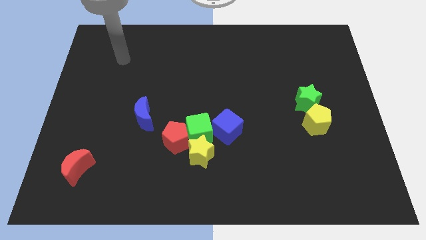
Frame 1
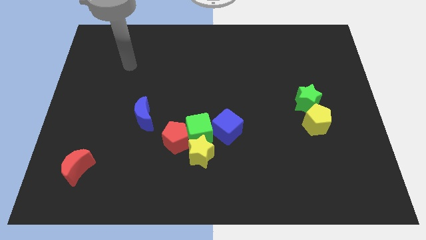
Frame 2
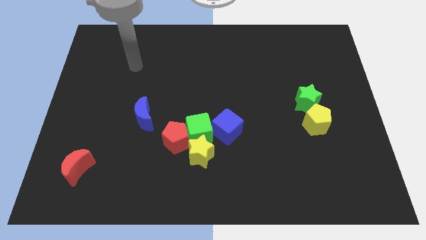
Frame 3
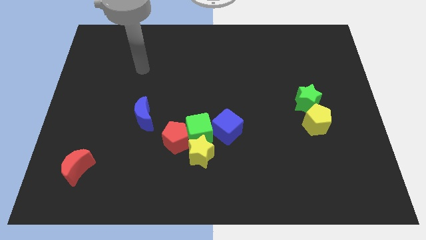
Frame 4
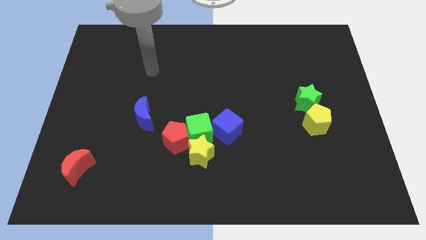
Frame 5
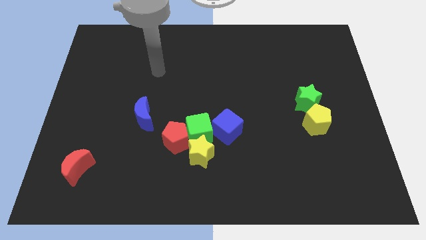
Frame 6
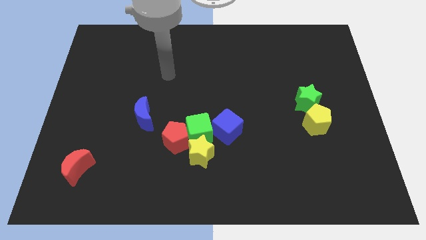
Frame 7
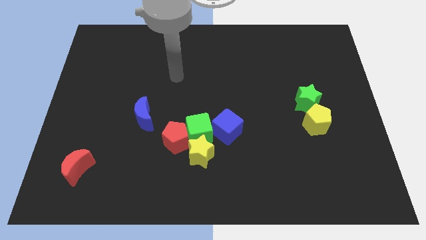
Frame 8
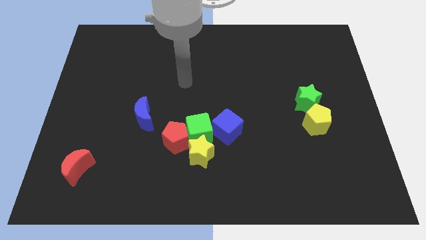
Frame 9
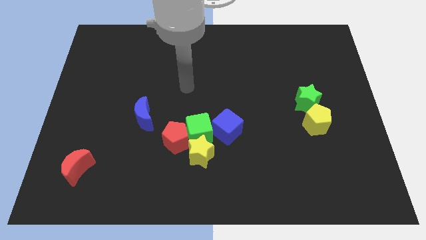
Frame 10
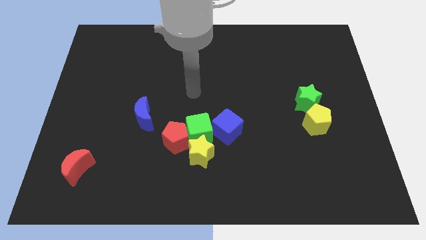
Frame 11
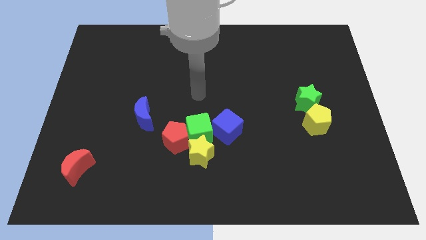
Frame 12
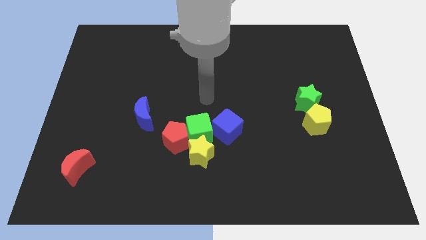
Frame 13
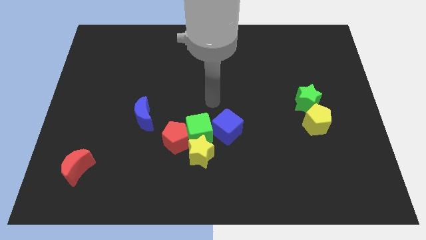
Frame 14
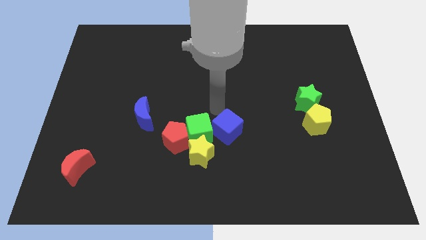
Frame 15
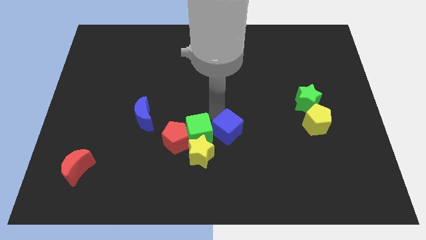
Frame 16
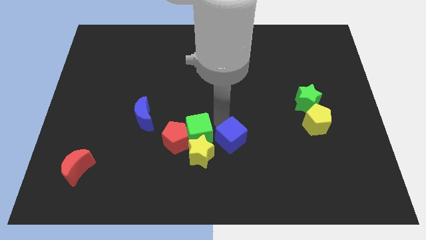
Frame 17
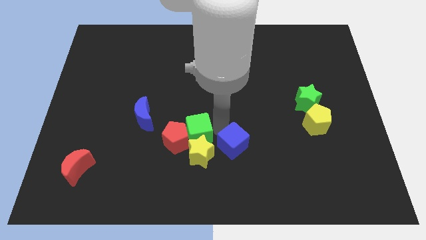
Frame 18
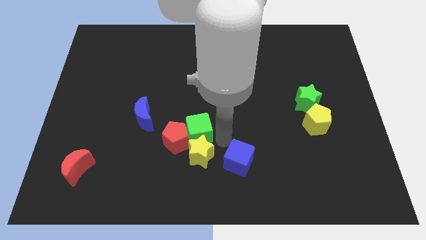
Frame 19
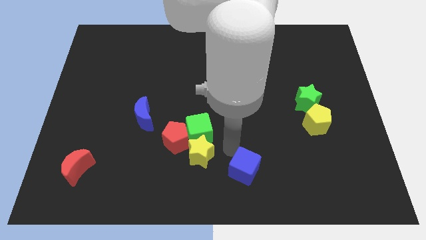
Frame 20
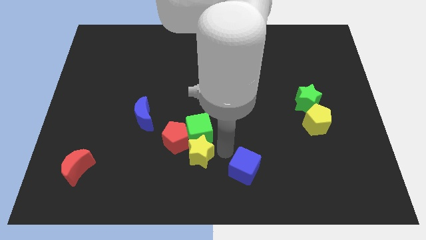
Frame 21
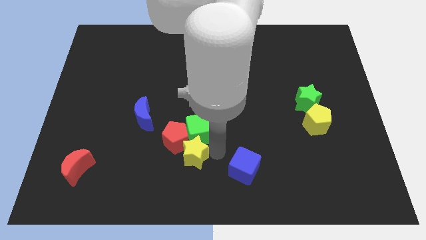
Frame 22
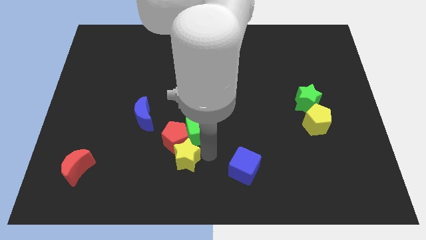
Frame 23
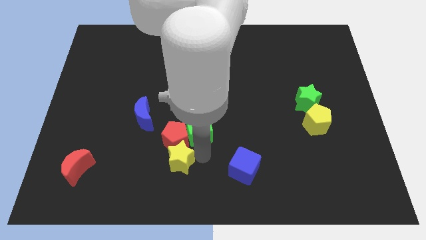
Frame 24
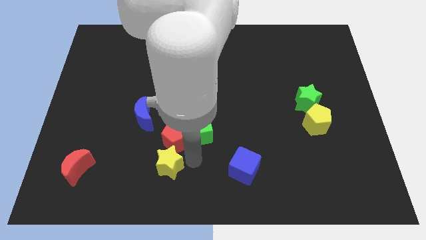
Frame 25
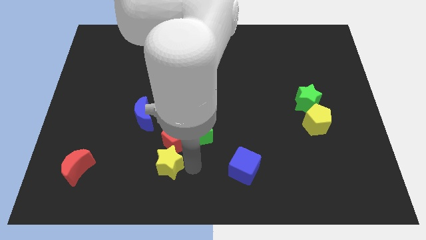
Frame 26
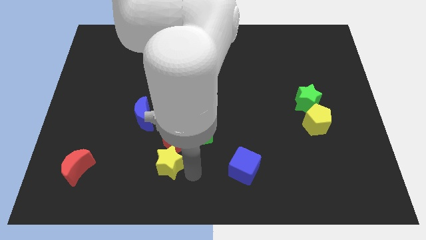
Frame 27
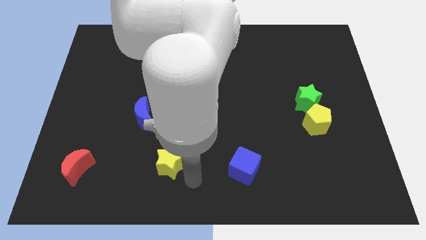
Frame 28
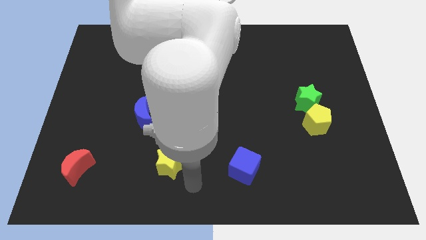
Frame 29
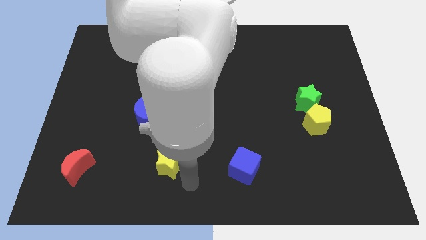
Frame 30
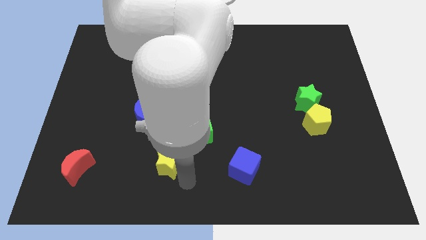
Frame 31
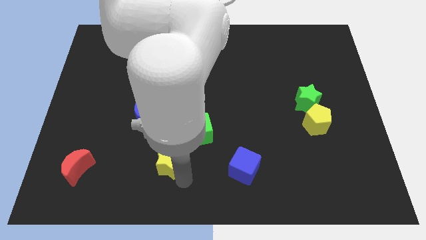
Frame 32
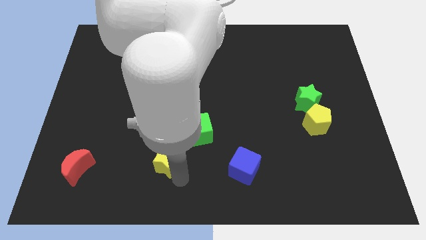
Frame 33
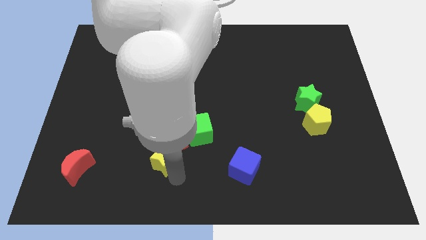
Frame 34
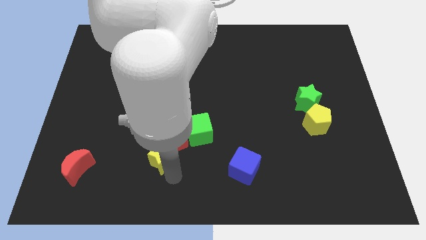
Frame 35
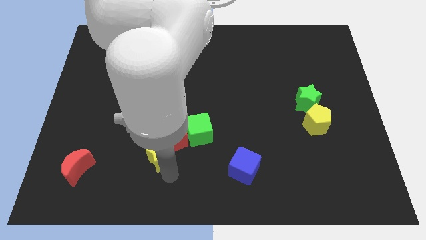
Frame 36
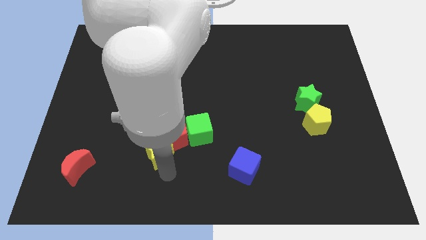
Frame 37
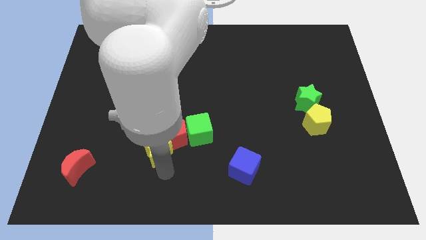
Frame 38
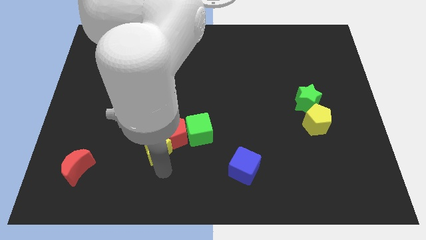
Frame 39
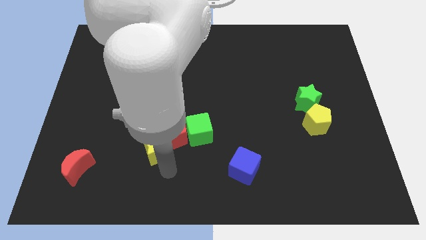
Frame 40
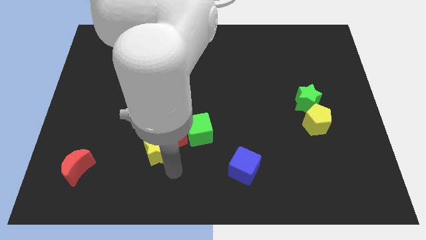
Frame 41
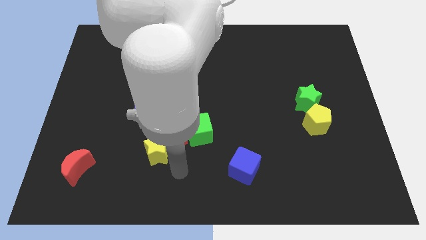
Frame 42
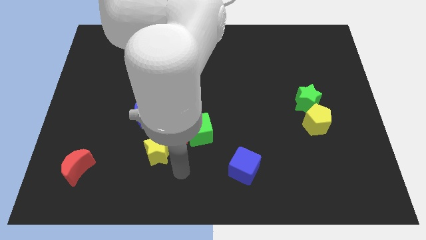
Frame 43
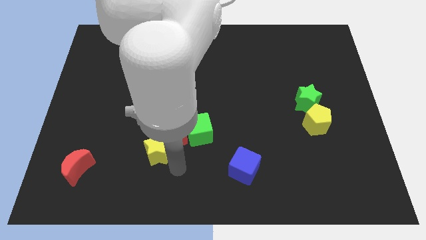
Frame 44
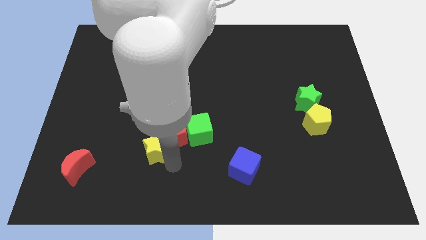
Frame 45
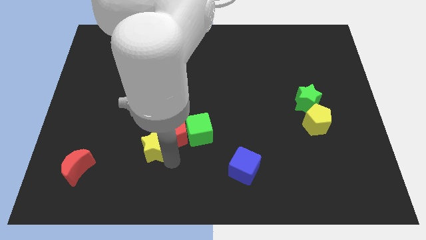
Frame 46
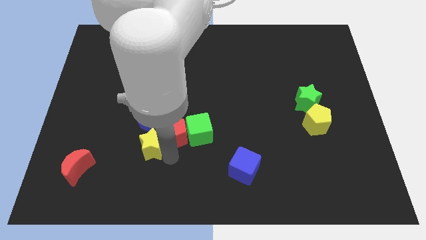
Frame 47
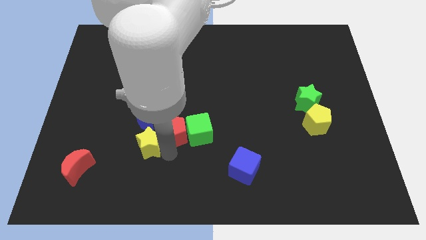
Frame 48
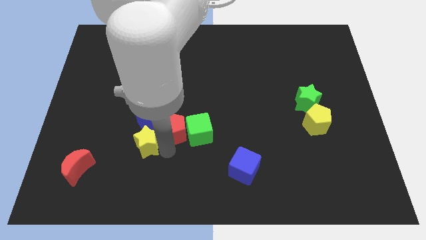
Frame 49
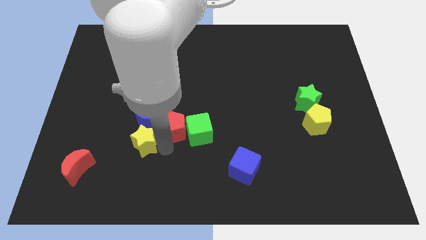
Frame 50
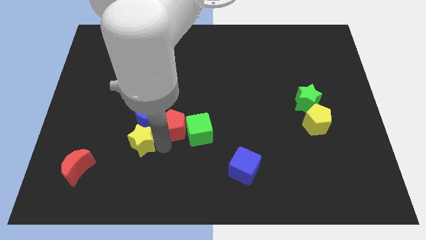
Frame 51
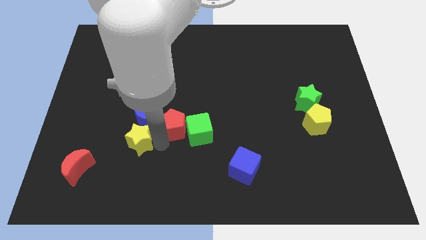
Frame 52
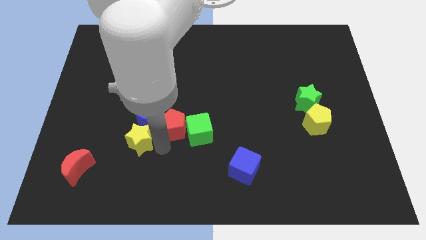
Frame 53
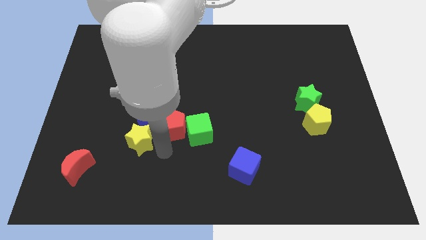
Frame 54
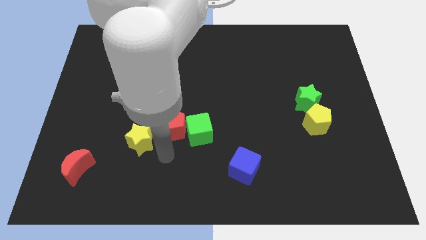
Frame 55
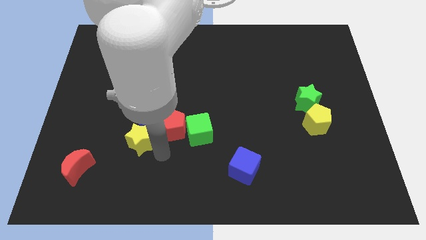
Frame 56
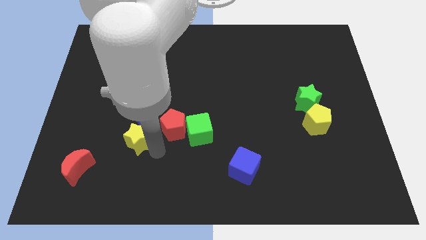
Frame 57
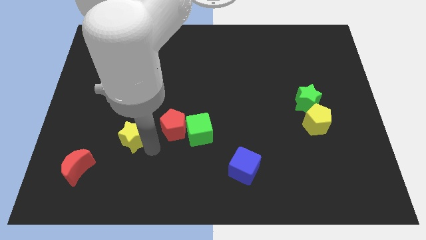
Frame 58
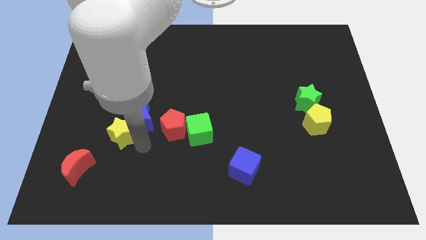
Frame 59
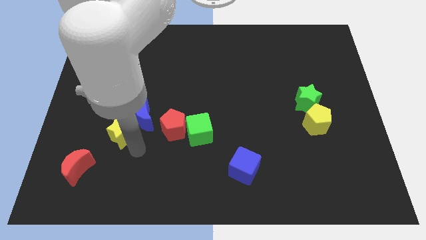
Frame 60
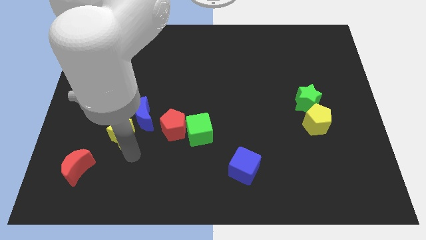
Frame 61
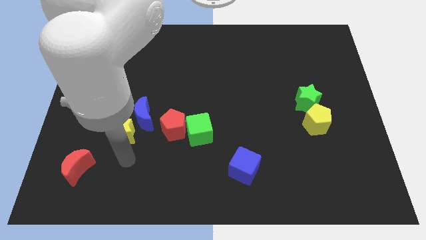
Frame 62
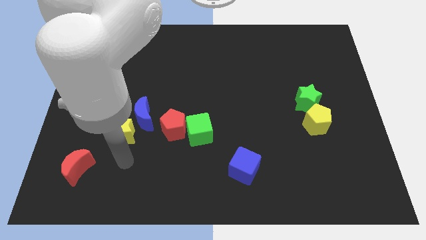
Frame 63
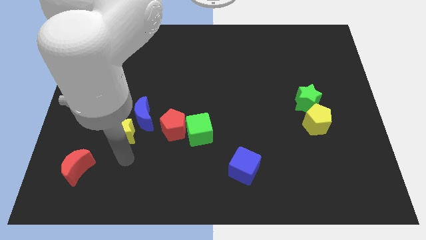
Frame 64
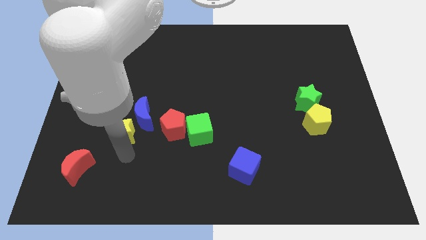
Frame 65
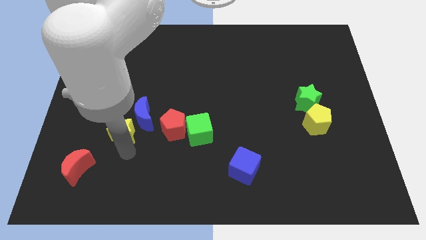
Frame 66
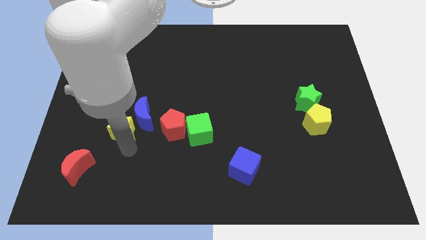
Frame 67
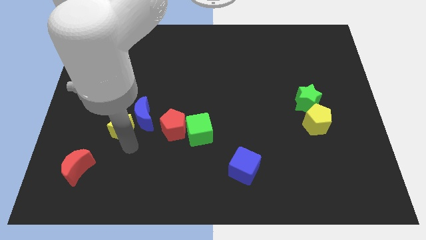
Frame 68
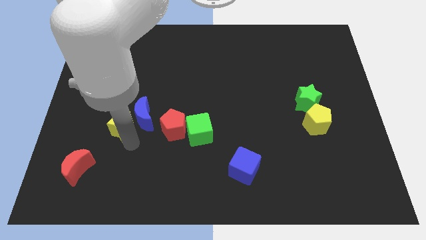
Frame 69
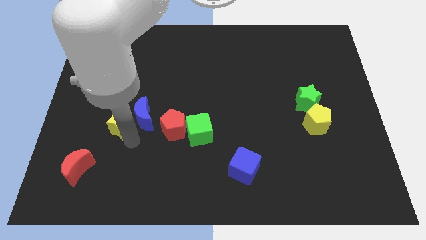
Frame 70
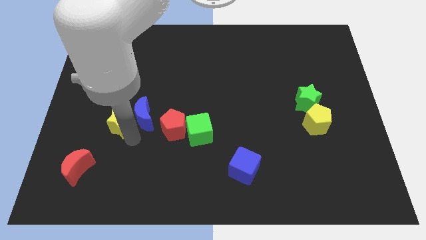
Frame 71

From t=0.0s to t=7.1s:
slide the yellow star to the top left of the blue moon

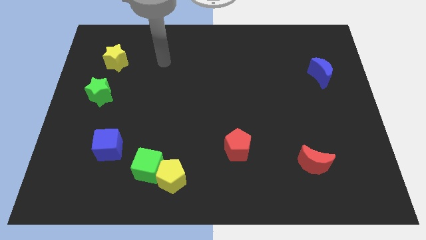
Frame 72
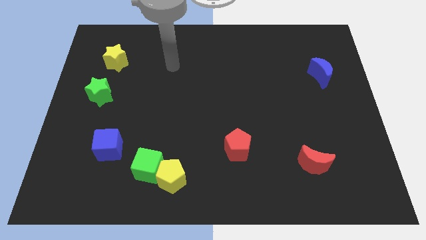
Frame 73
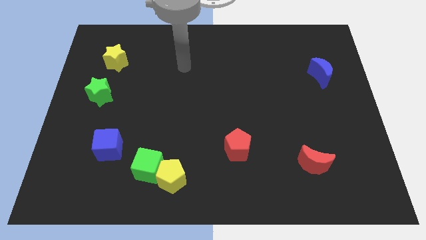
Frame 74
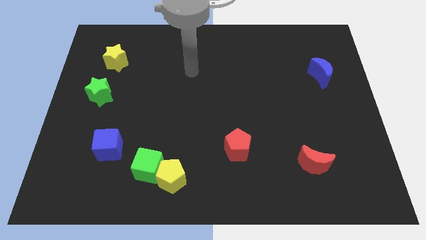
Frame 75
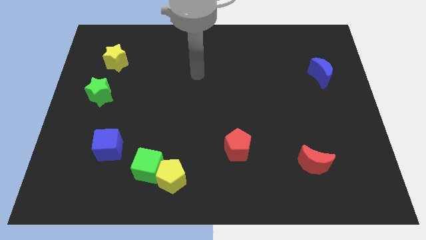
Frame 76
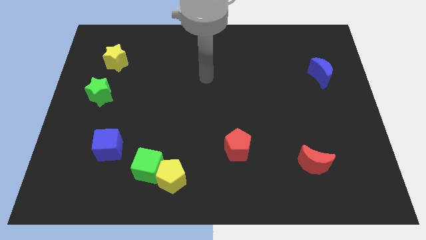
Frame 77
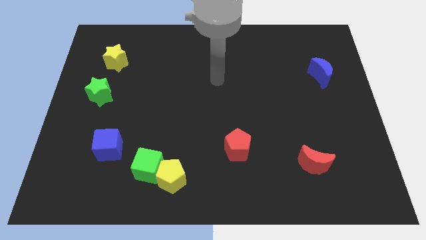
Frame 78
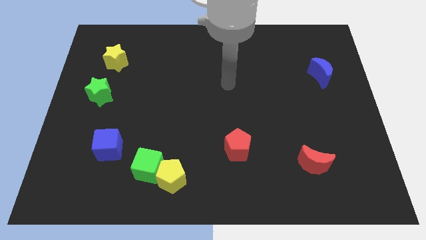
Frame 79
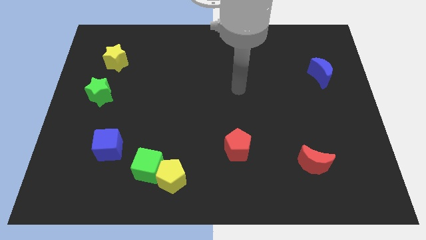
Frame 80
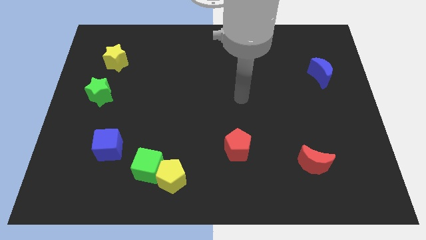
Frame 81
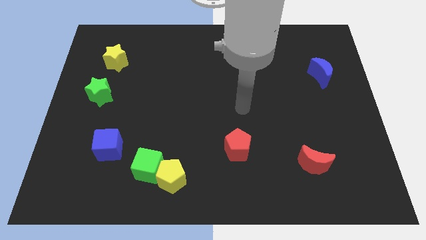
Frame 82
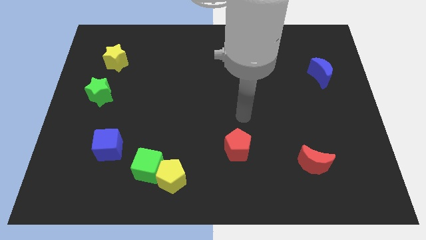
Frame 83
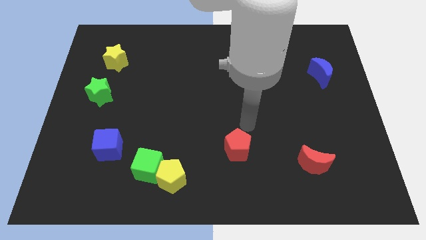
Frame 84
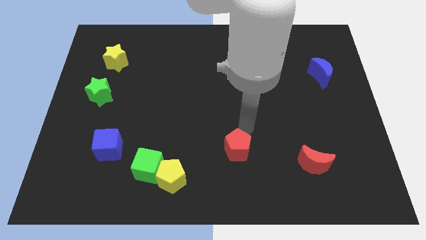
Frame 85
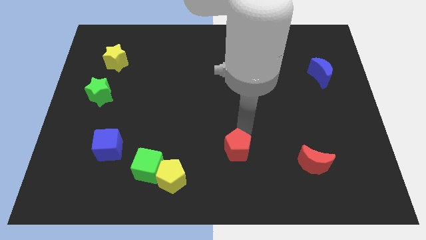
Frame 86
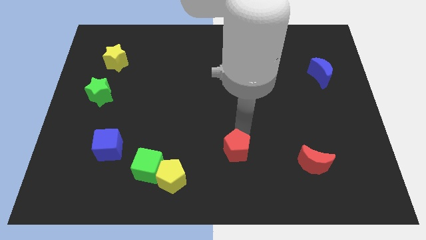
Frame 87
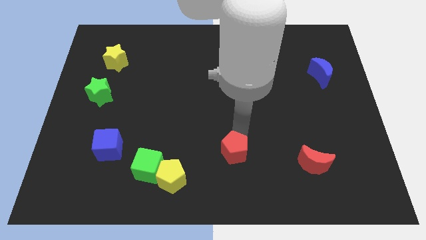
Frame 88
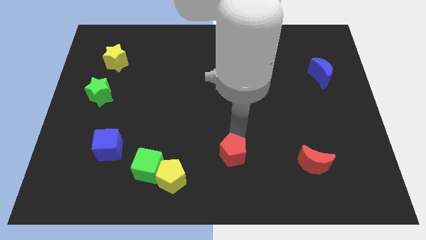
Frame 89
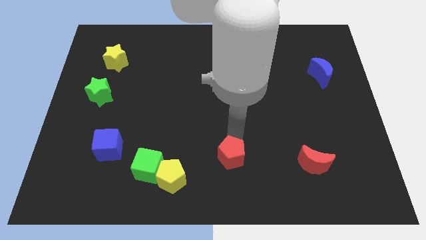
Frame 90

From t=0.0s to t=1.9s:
slide the red pentagon just right of the yellow pentagon
